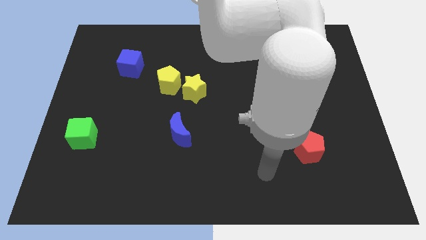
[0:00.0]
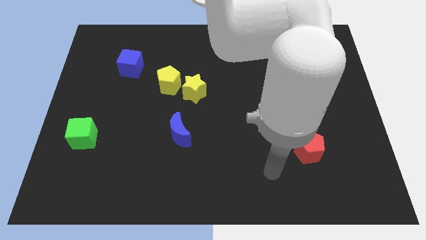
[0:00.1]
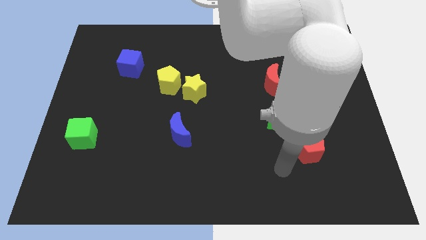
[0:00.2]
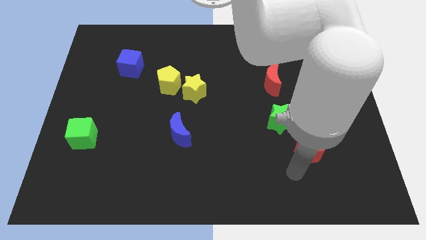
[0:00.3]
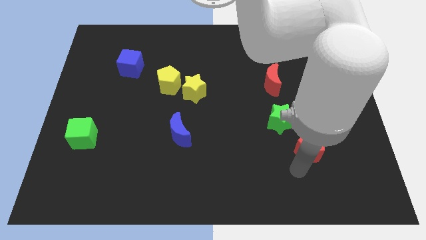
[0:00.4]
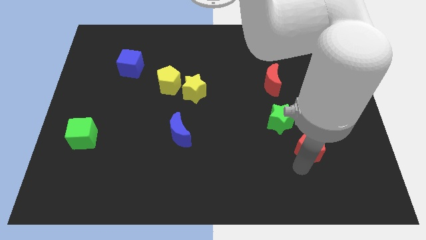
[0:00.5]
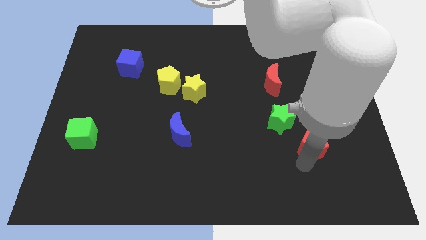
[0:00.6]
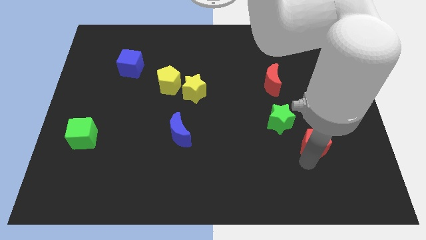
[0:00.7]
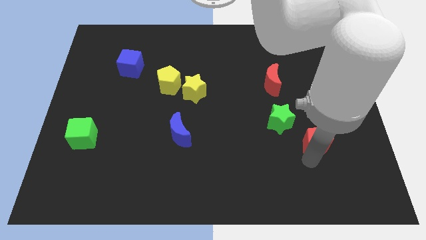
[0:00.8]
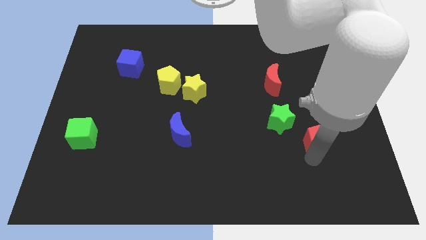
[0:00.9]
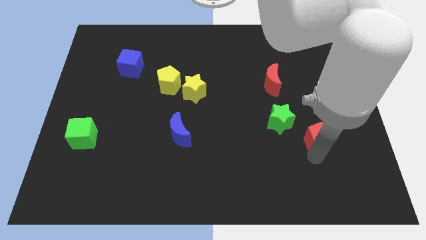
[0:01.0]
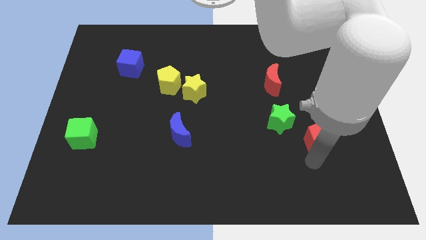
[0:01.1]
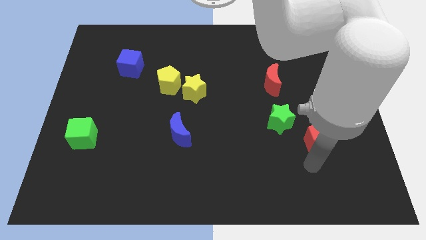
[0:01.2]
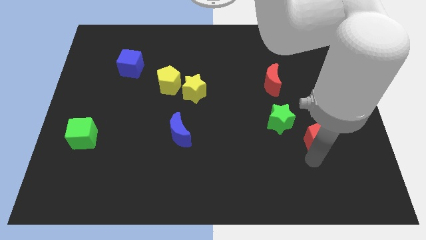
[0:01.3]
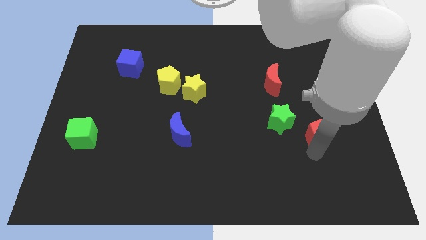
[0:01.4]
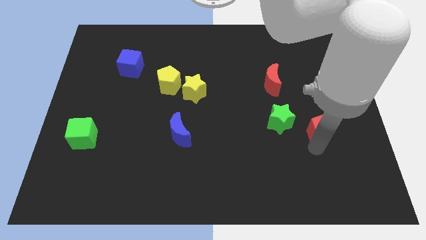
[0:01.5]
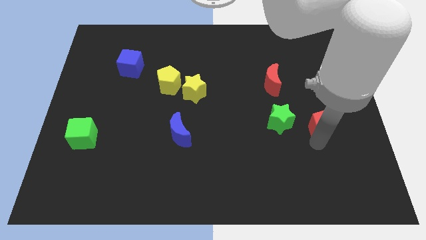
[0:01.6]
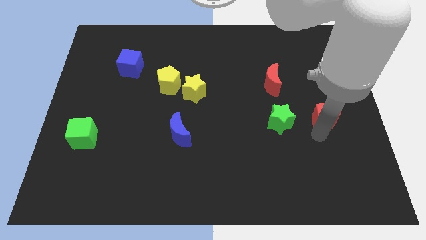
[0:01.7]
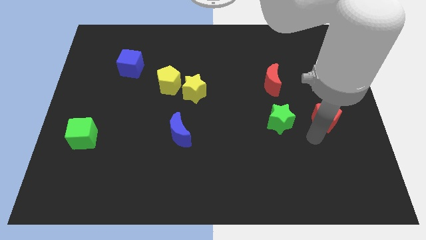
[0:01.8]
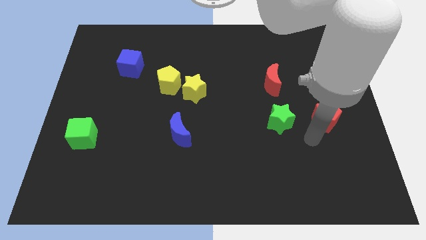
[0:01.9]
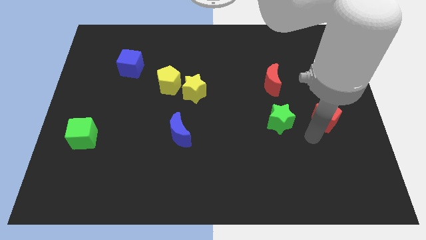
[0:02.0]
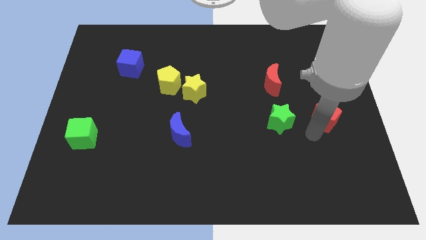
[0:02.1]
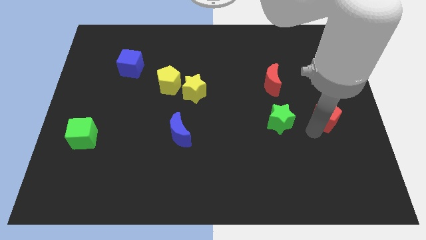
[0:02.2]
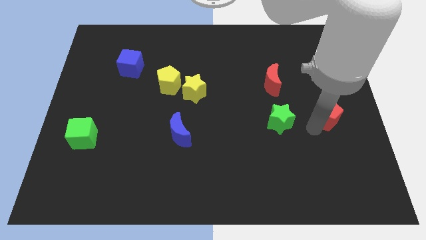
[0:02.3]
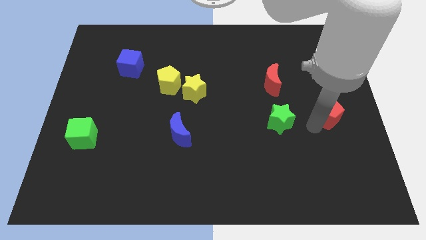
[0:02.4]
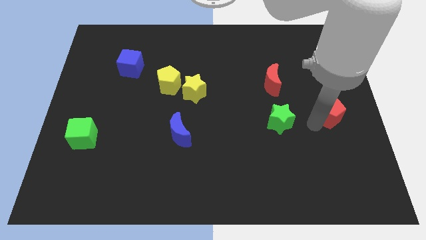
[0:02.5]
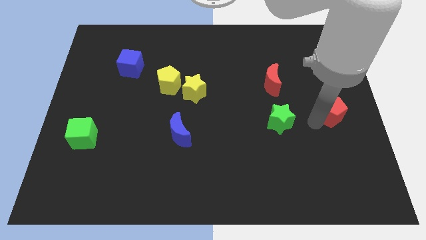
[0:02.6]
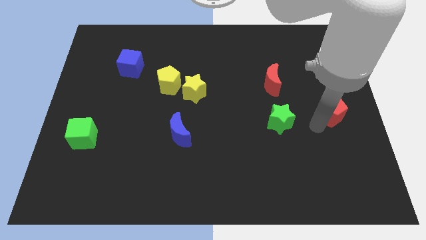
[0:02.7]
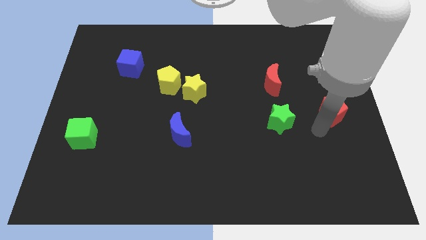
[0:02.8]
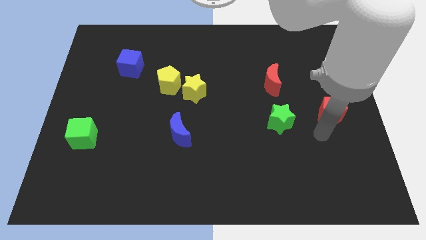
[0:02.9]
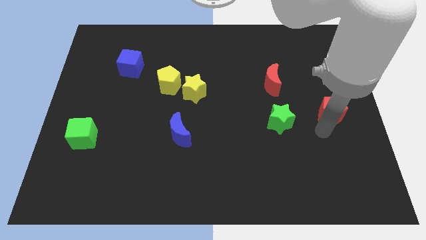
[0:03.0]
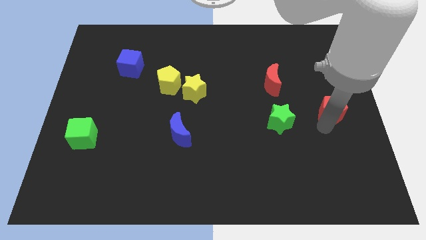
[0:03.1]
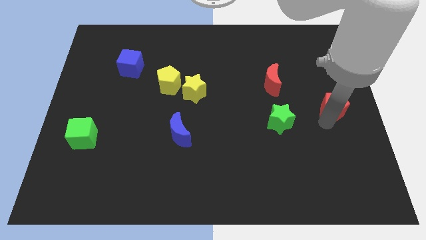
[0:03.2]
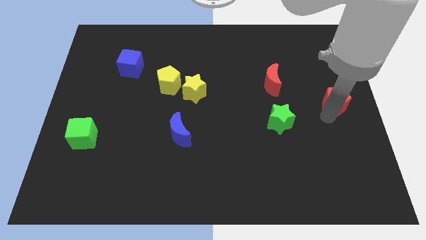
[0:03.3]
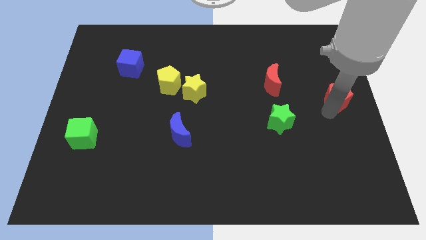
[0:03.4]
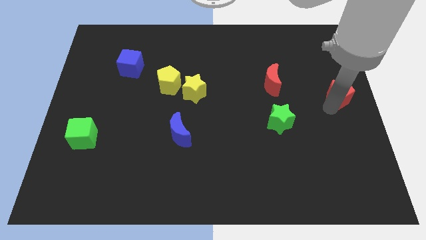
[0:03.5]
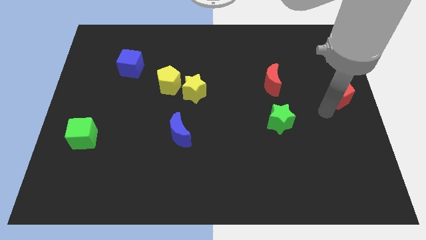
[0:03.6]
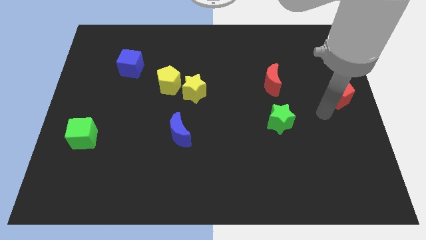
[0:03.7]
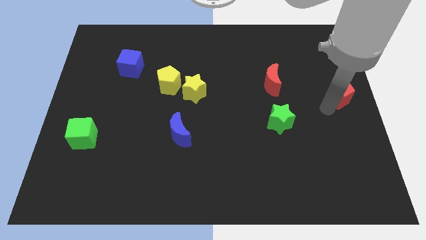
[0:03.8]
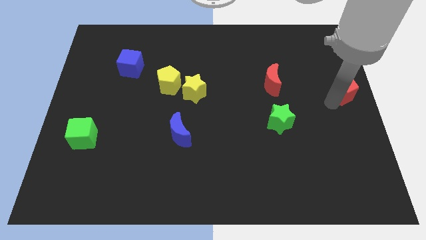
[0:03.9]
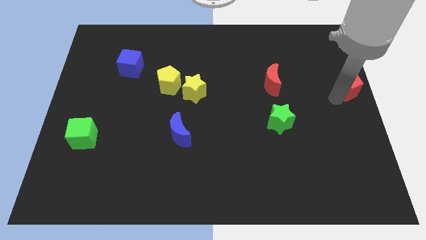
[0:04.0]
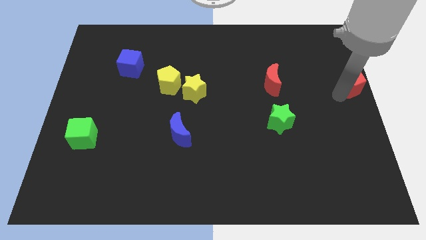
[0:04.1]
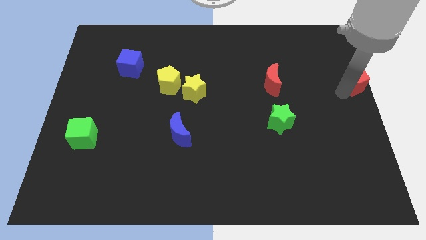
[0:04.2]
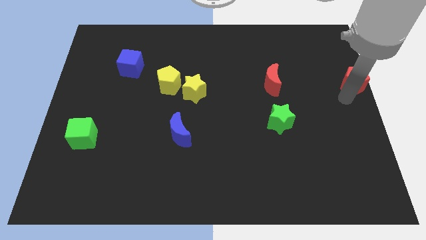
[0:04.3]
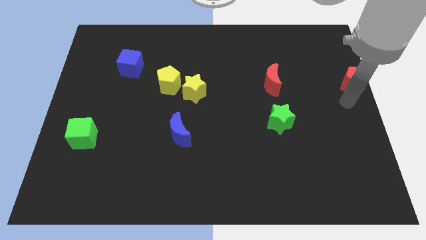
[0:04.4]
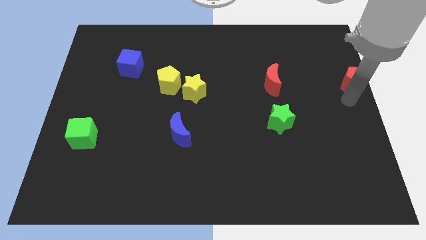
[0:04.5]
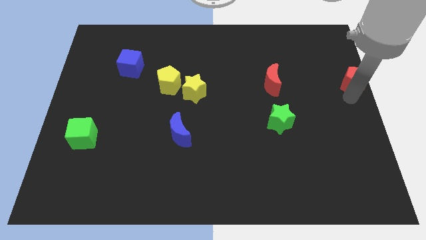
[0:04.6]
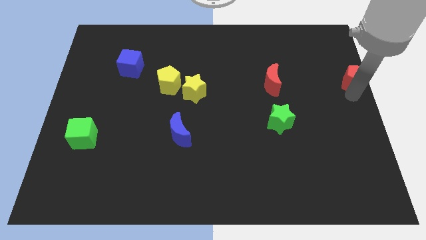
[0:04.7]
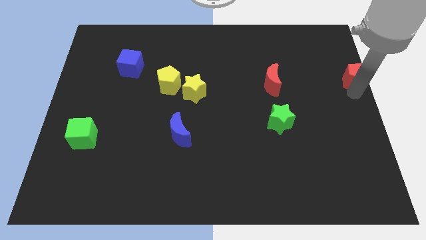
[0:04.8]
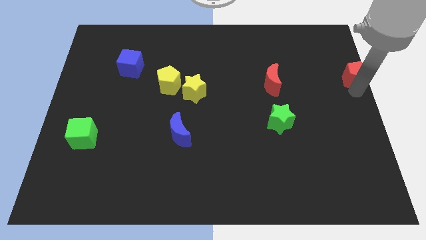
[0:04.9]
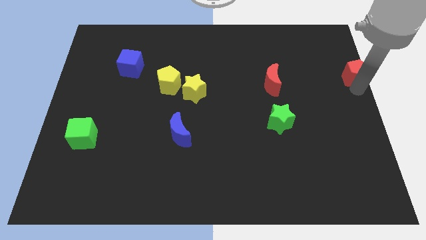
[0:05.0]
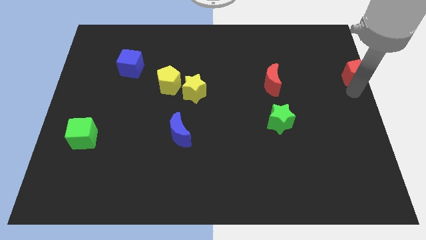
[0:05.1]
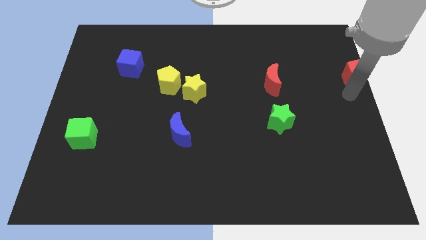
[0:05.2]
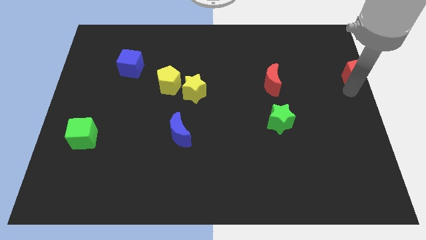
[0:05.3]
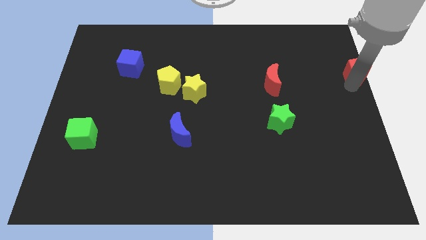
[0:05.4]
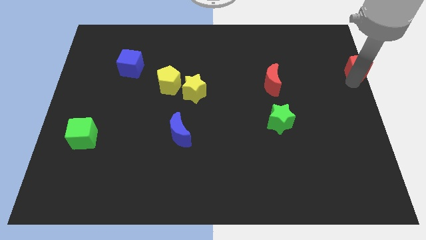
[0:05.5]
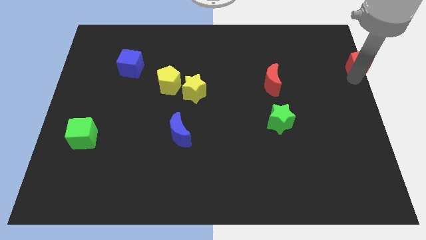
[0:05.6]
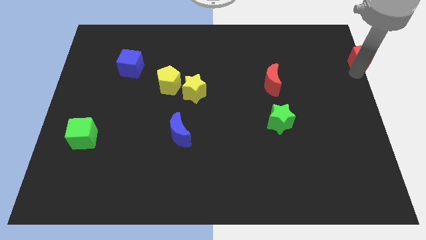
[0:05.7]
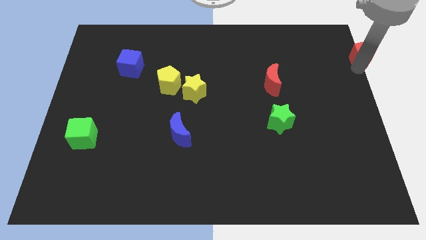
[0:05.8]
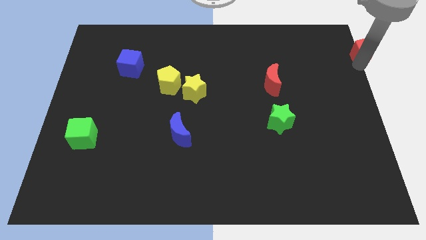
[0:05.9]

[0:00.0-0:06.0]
slide the red pentagon to the top right
